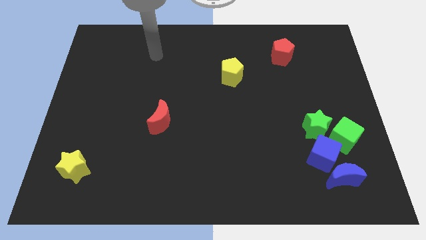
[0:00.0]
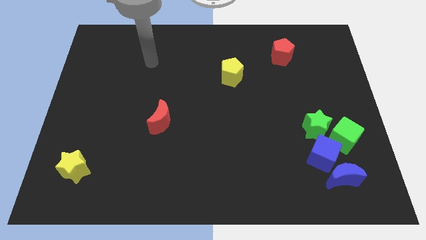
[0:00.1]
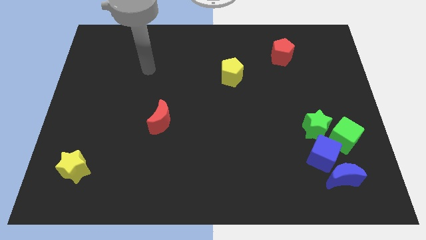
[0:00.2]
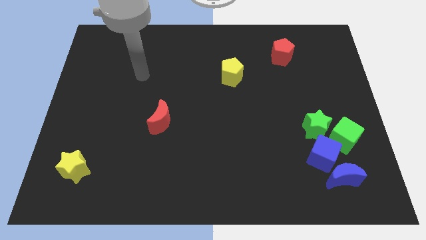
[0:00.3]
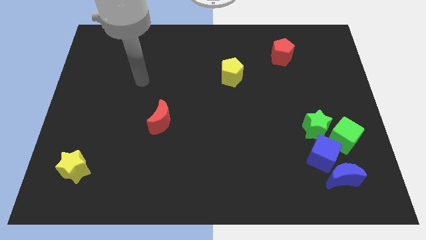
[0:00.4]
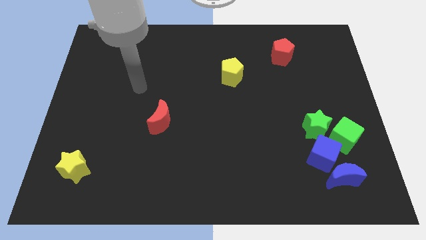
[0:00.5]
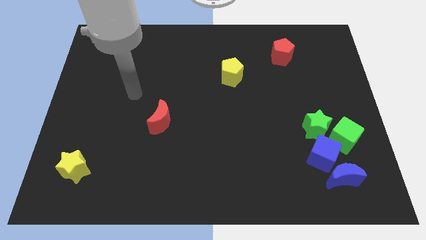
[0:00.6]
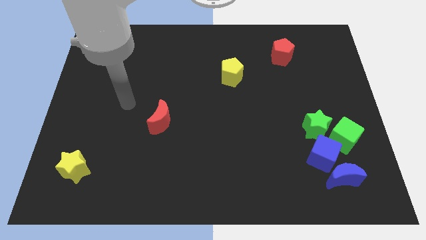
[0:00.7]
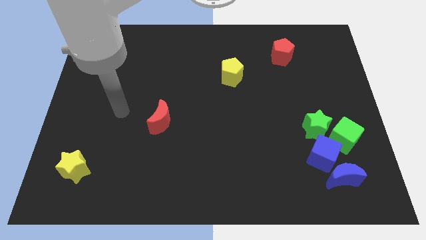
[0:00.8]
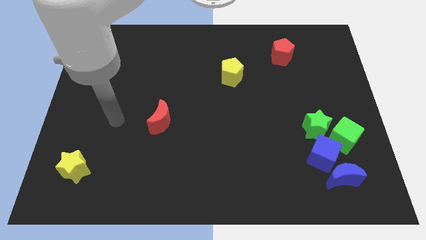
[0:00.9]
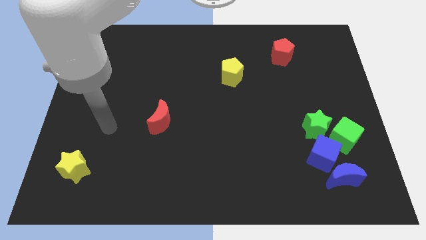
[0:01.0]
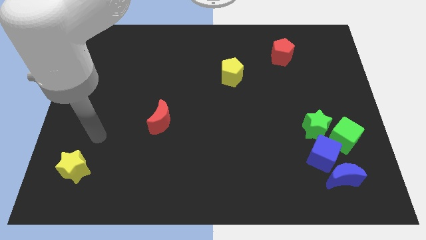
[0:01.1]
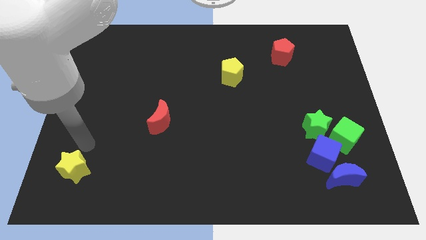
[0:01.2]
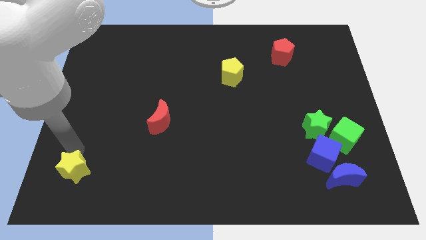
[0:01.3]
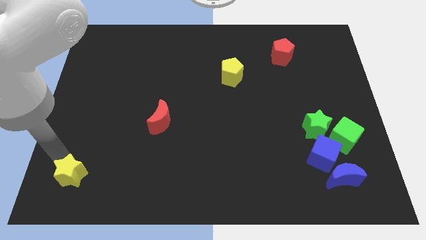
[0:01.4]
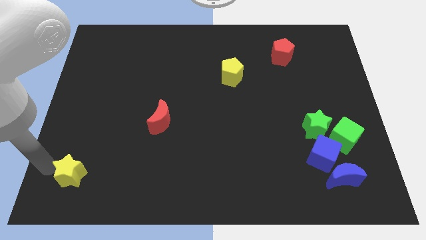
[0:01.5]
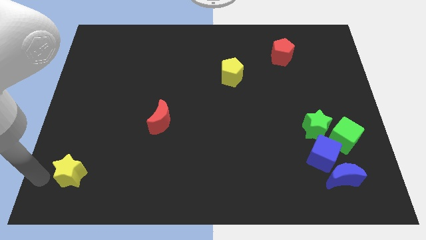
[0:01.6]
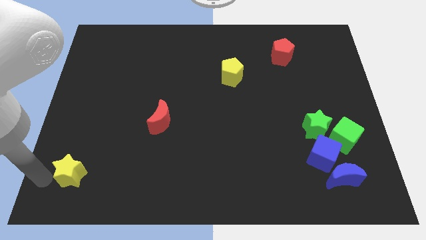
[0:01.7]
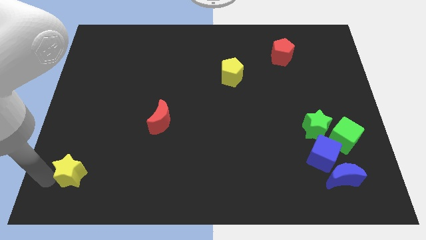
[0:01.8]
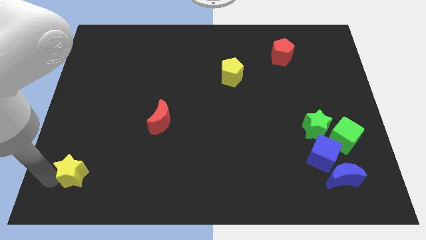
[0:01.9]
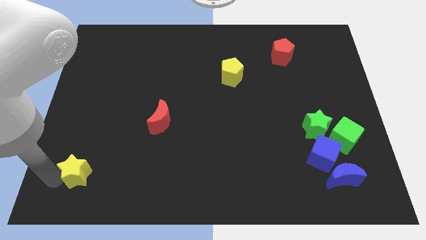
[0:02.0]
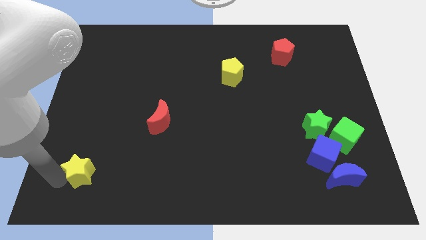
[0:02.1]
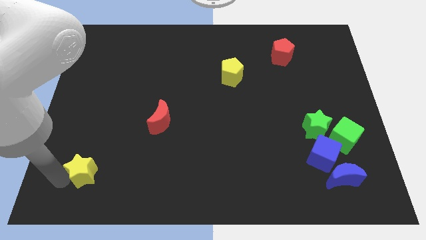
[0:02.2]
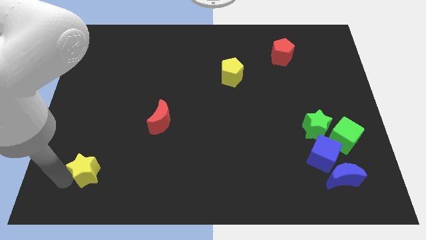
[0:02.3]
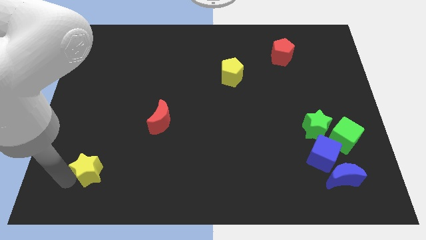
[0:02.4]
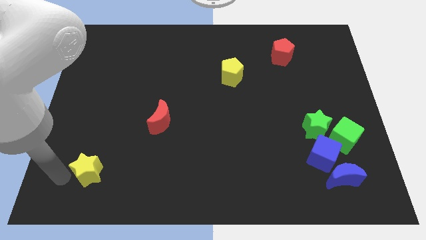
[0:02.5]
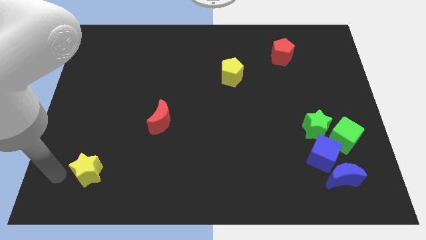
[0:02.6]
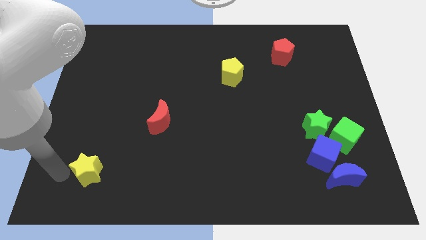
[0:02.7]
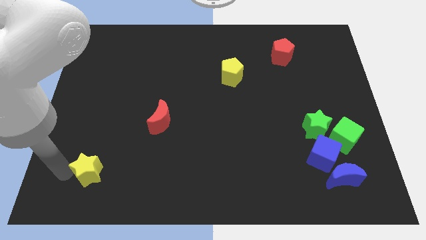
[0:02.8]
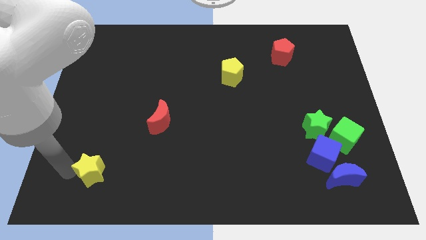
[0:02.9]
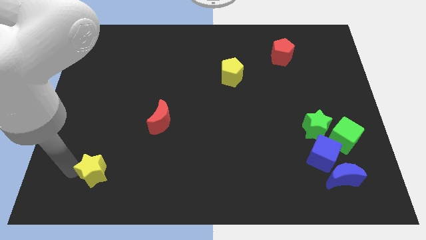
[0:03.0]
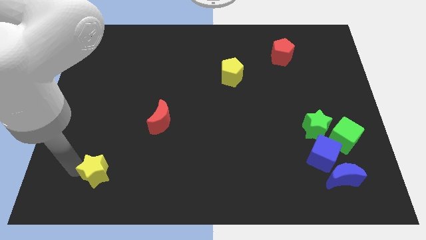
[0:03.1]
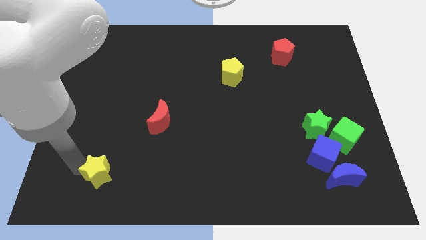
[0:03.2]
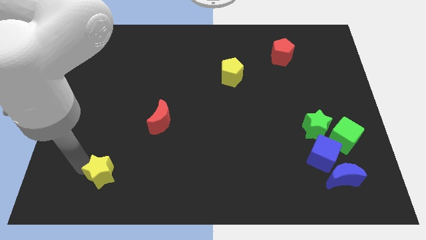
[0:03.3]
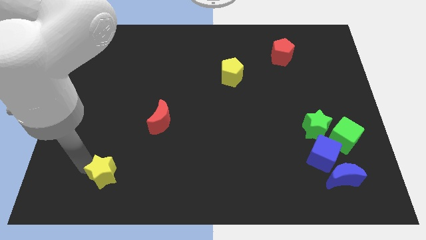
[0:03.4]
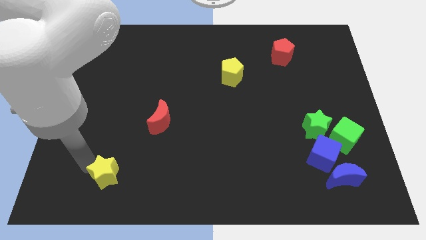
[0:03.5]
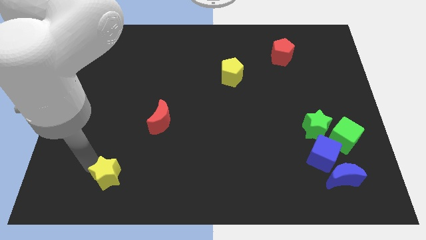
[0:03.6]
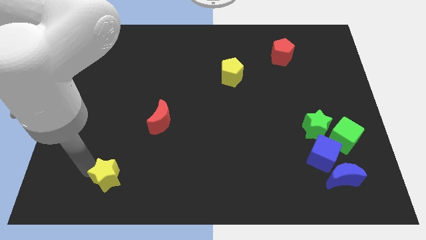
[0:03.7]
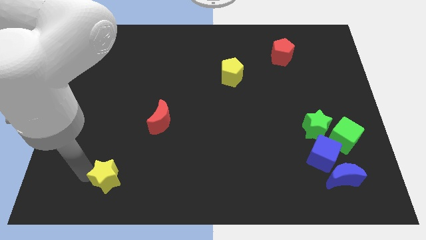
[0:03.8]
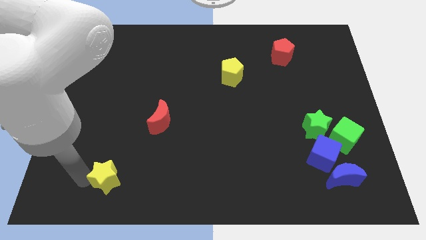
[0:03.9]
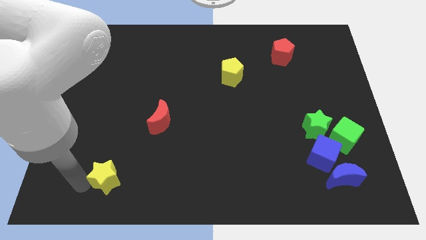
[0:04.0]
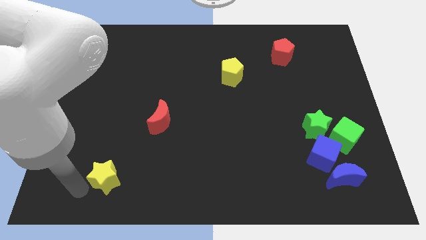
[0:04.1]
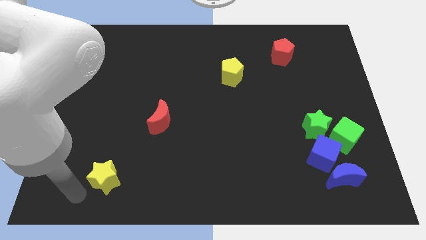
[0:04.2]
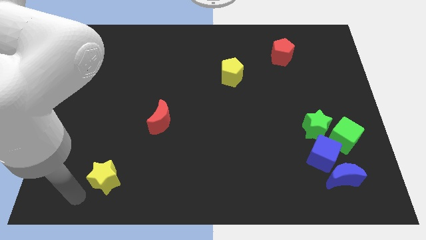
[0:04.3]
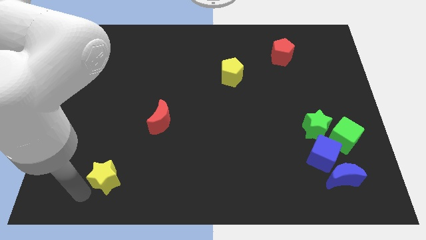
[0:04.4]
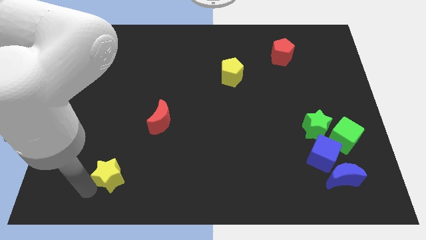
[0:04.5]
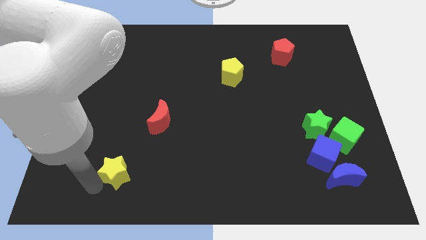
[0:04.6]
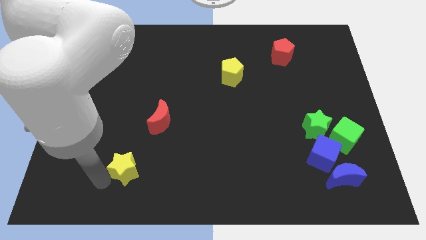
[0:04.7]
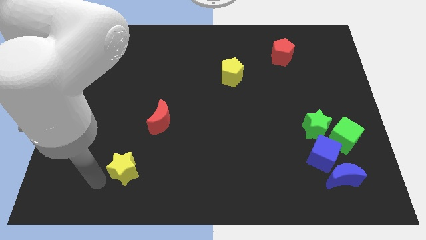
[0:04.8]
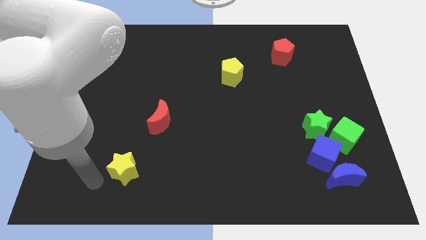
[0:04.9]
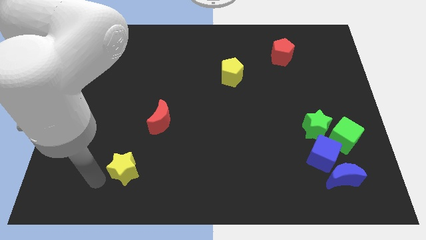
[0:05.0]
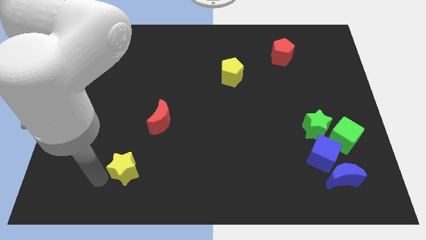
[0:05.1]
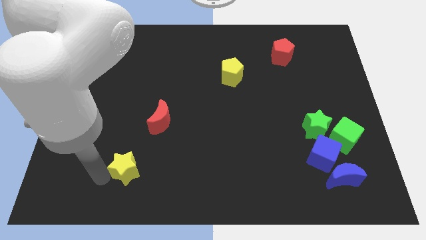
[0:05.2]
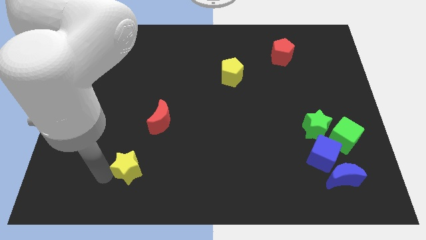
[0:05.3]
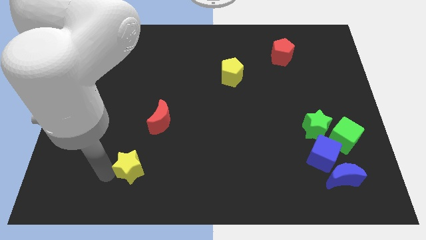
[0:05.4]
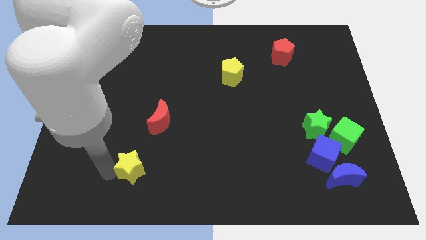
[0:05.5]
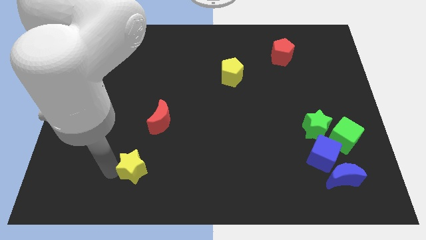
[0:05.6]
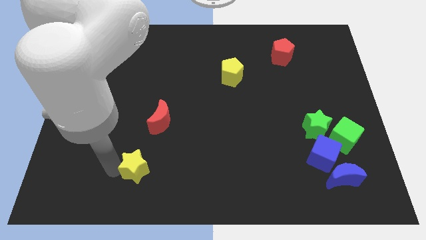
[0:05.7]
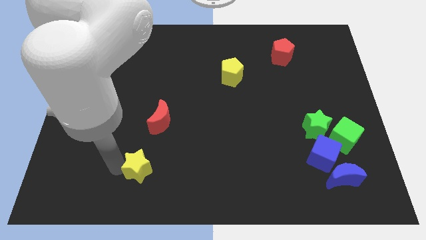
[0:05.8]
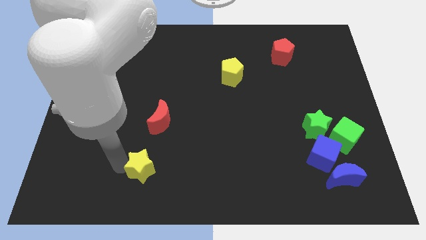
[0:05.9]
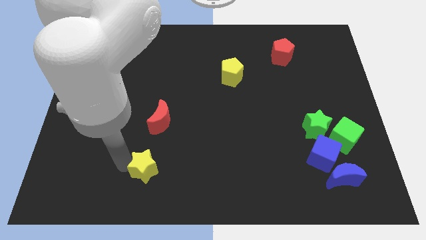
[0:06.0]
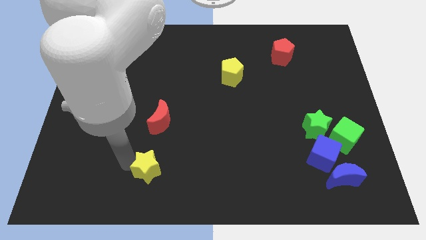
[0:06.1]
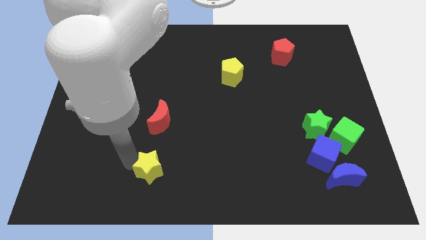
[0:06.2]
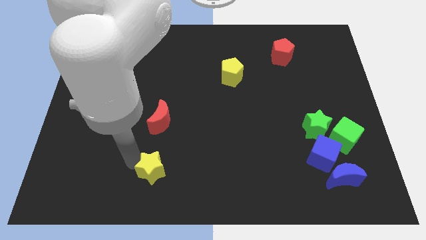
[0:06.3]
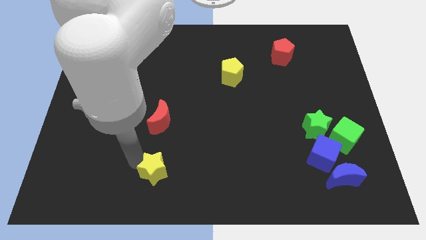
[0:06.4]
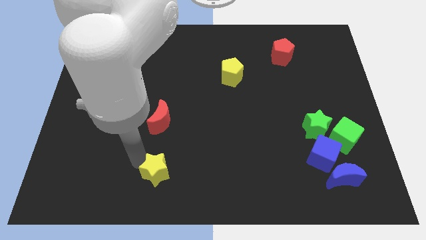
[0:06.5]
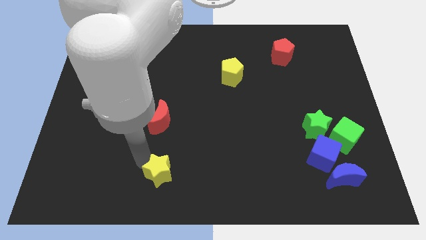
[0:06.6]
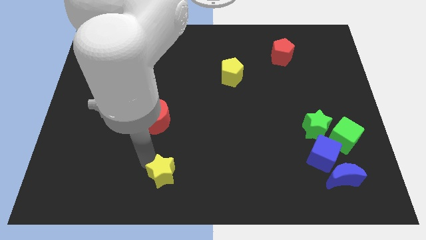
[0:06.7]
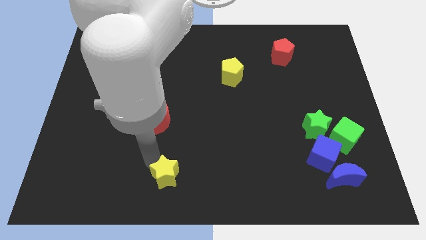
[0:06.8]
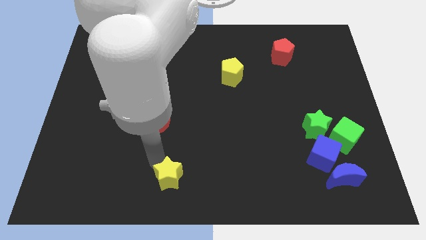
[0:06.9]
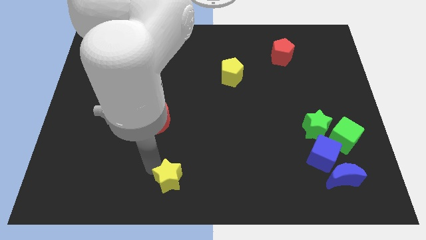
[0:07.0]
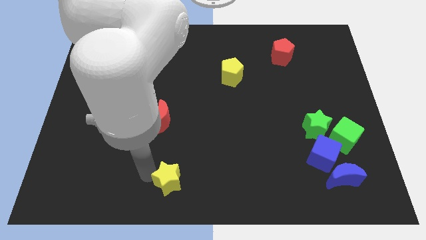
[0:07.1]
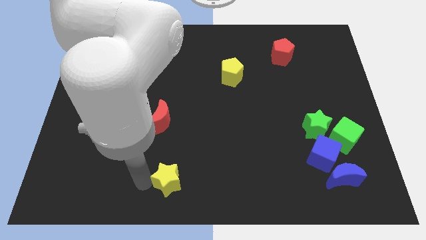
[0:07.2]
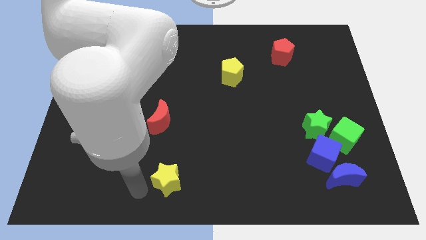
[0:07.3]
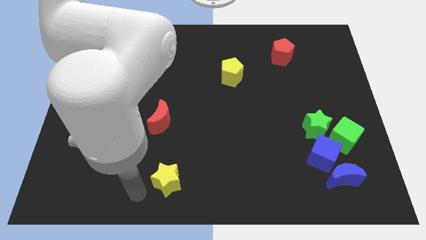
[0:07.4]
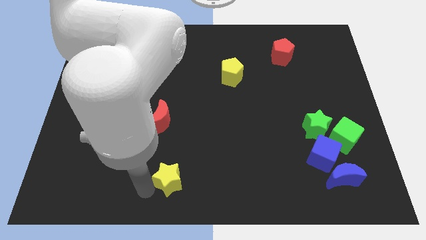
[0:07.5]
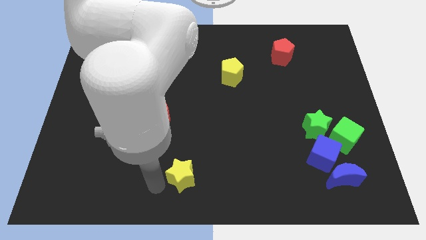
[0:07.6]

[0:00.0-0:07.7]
move the yellow star to the right
